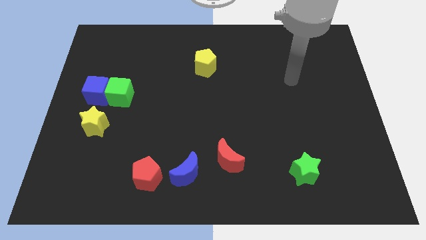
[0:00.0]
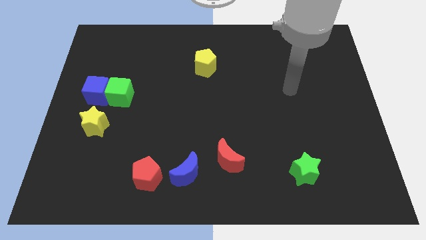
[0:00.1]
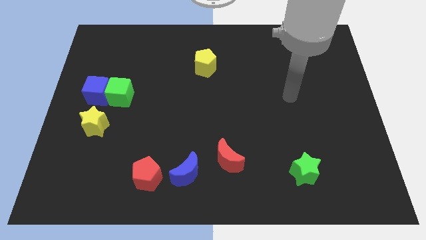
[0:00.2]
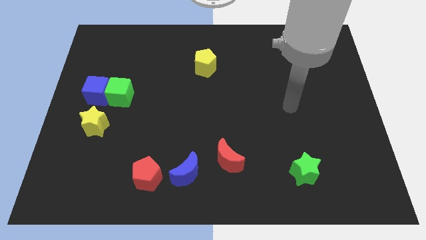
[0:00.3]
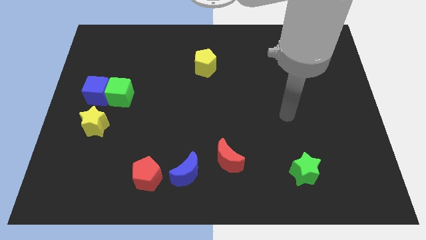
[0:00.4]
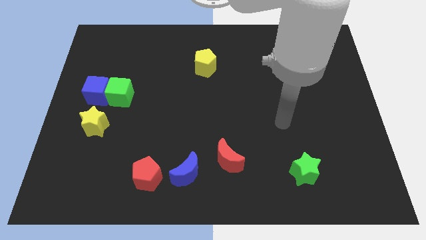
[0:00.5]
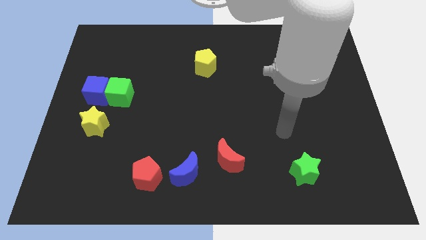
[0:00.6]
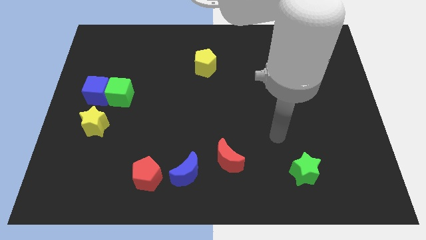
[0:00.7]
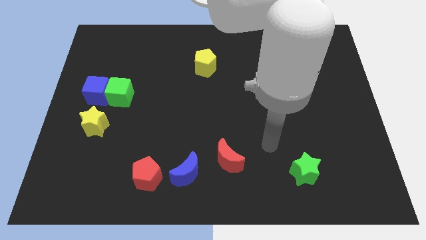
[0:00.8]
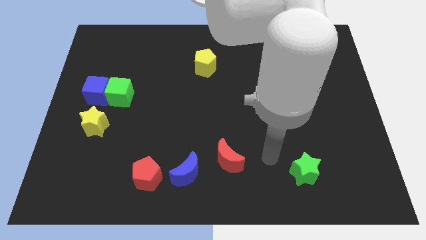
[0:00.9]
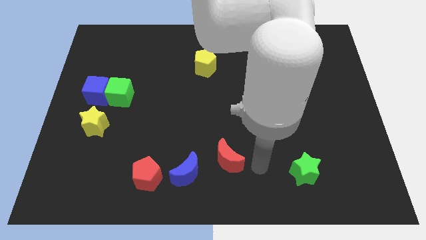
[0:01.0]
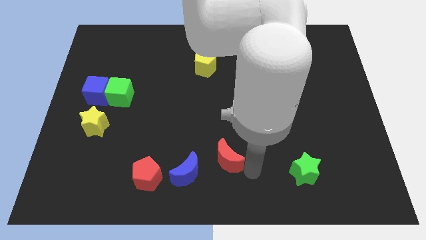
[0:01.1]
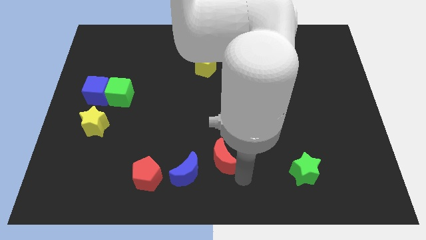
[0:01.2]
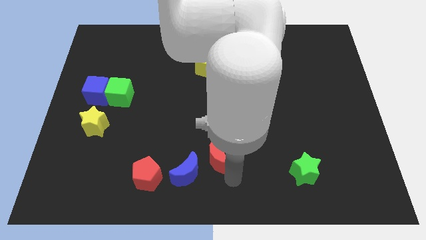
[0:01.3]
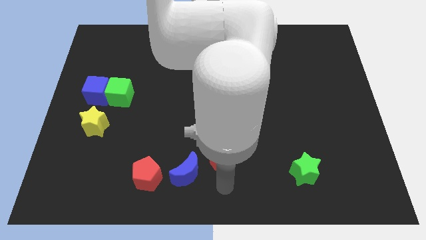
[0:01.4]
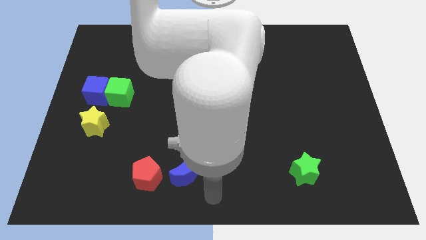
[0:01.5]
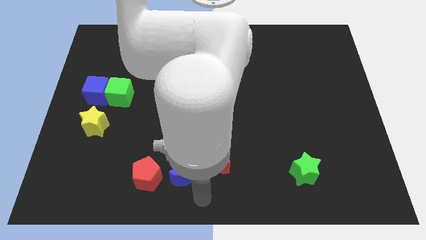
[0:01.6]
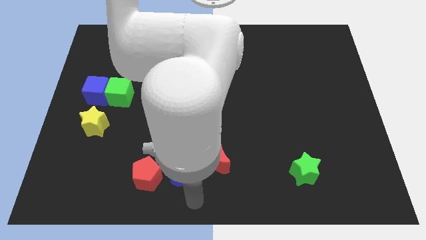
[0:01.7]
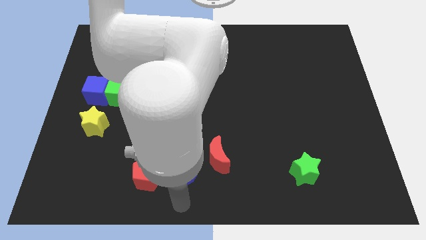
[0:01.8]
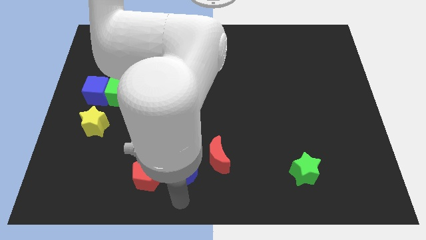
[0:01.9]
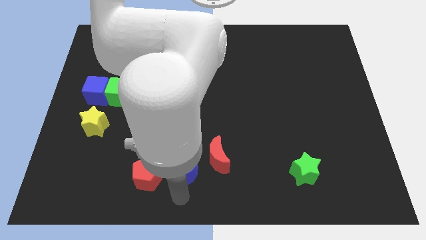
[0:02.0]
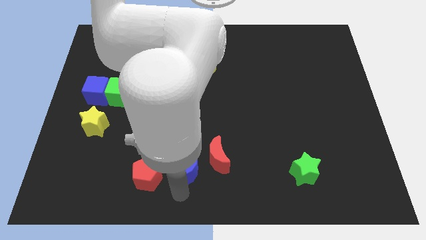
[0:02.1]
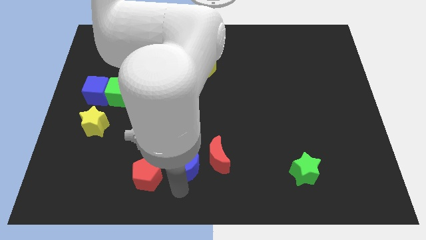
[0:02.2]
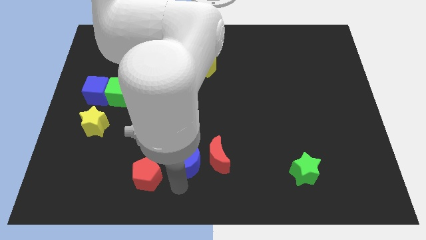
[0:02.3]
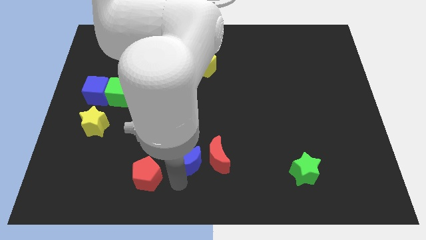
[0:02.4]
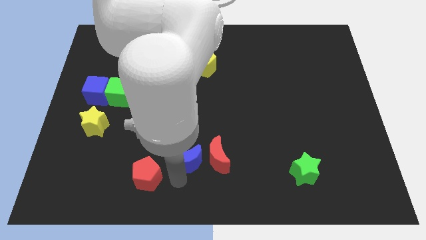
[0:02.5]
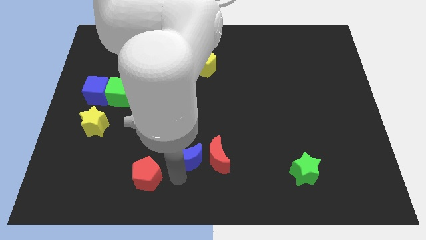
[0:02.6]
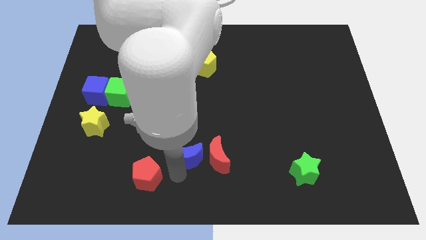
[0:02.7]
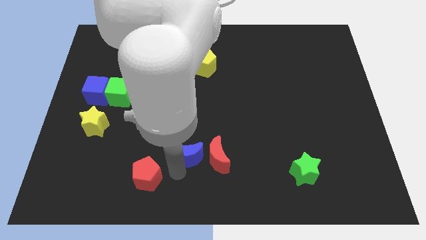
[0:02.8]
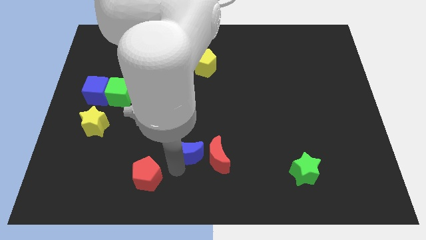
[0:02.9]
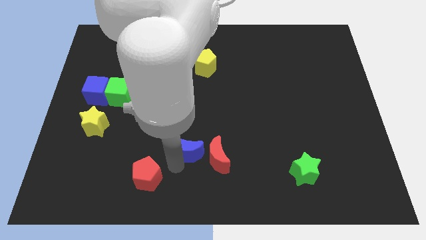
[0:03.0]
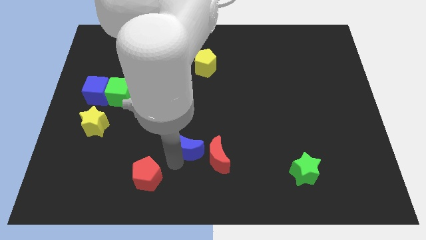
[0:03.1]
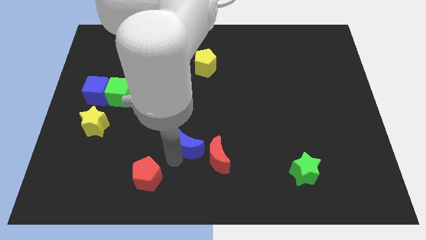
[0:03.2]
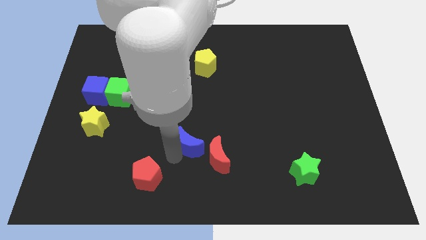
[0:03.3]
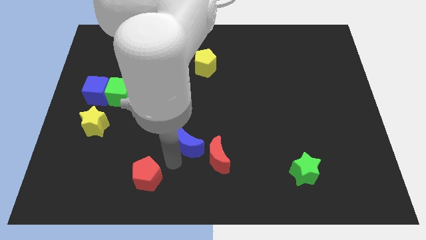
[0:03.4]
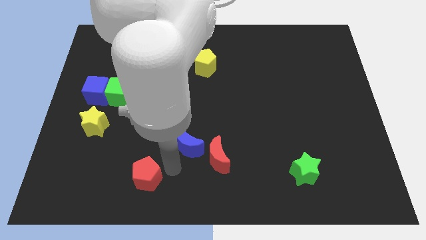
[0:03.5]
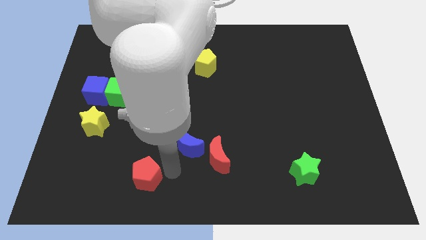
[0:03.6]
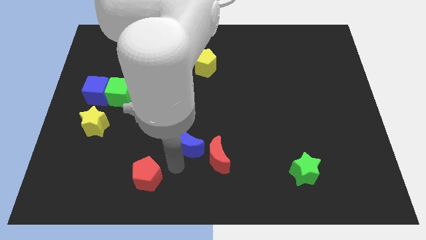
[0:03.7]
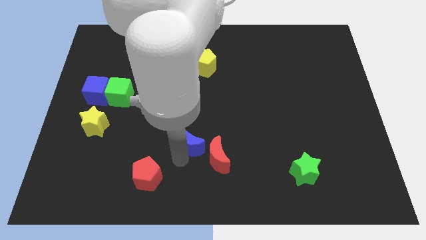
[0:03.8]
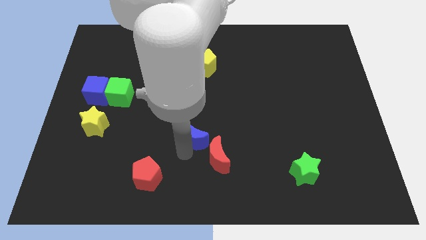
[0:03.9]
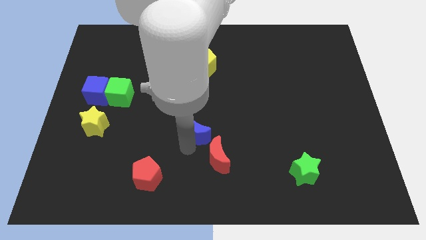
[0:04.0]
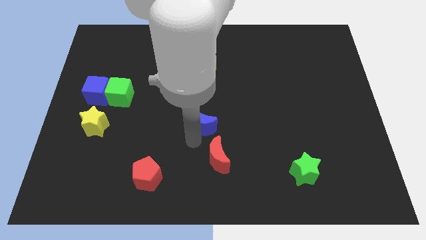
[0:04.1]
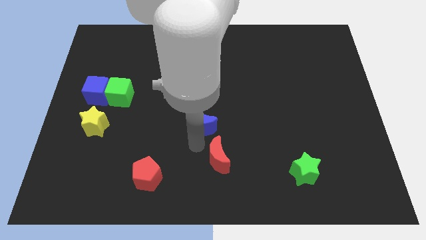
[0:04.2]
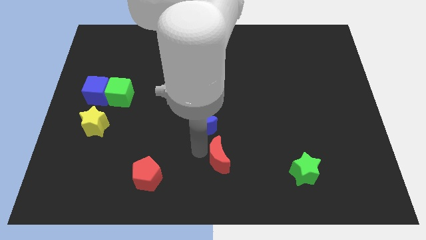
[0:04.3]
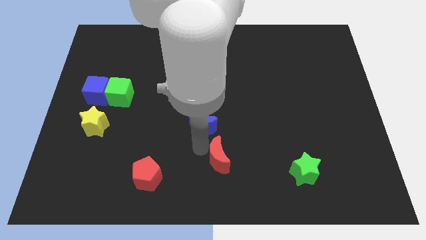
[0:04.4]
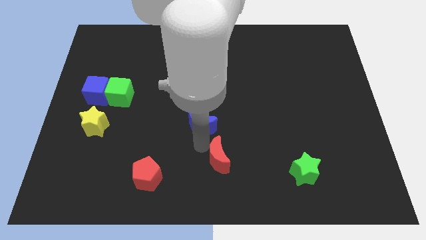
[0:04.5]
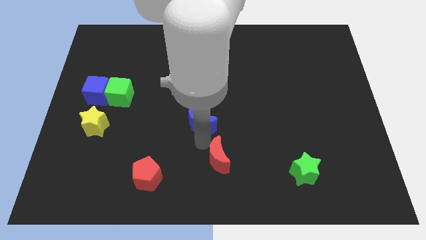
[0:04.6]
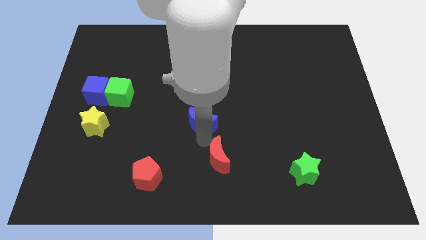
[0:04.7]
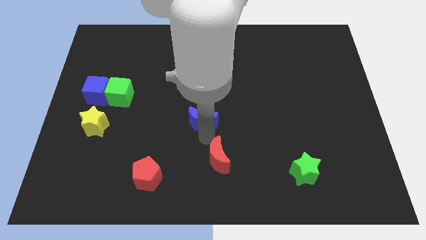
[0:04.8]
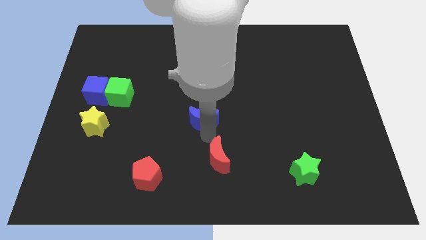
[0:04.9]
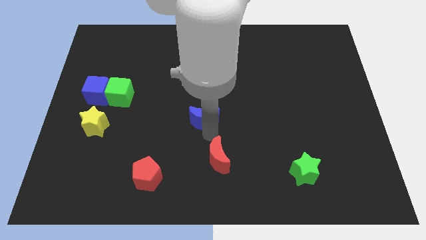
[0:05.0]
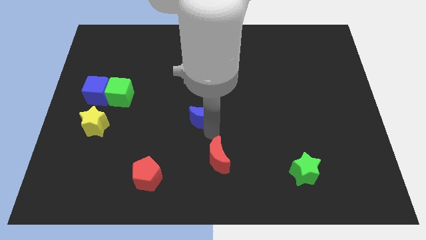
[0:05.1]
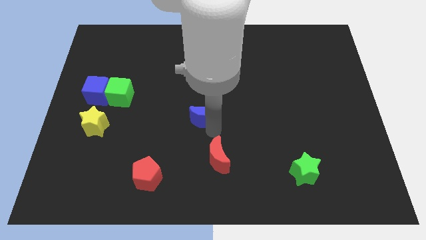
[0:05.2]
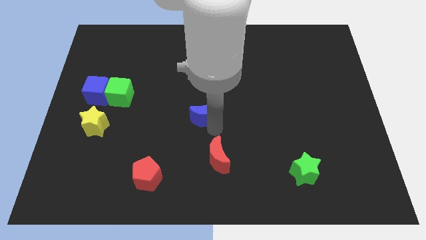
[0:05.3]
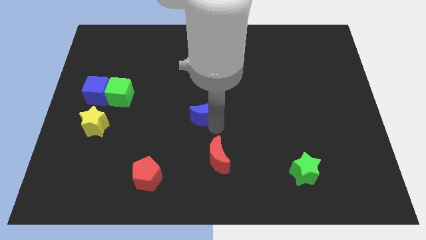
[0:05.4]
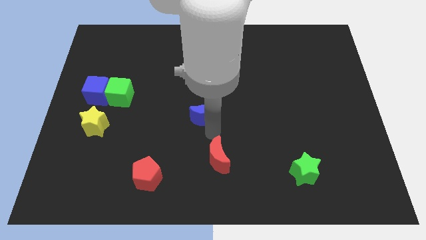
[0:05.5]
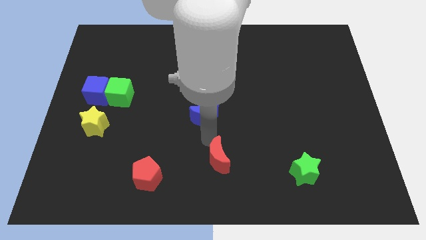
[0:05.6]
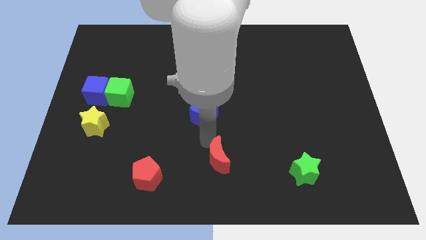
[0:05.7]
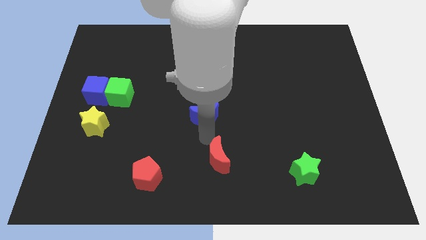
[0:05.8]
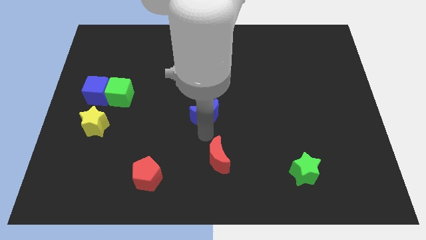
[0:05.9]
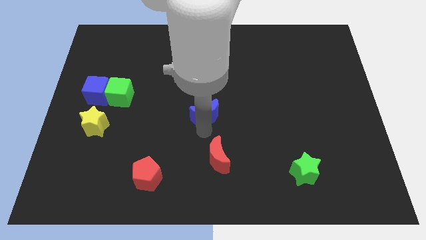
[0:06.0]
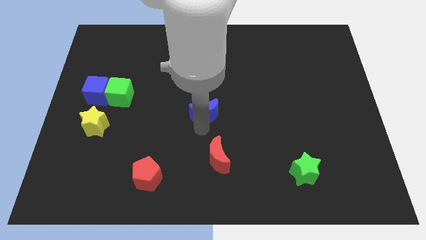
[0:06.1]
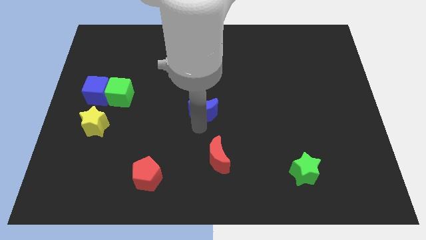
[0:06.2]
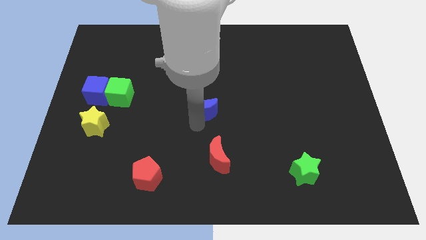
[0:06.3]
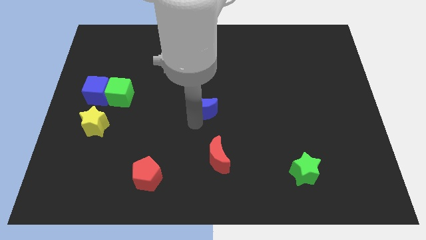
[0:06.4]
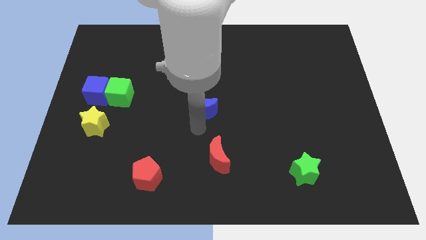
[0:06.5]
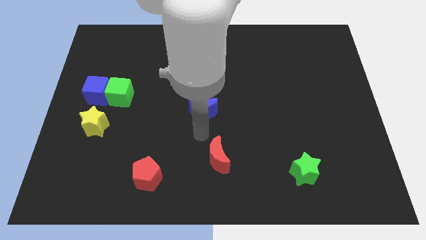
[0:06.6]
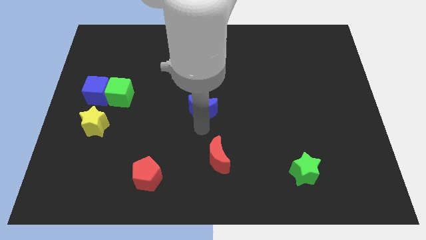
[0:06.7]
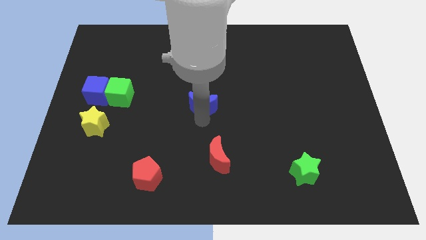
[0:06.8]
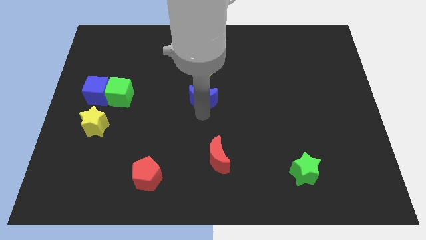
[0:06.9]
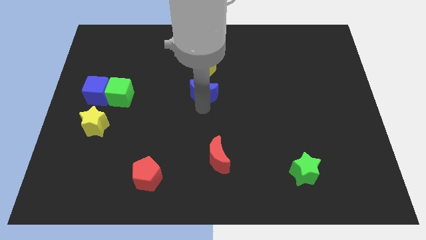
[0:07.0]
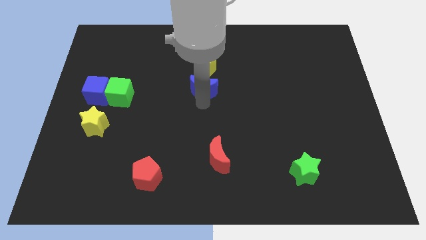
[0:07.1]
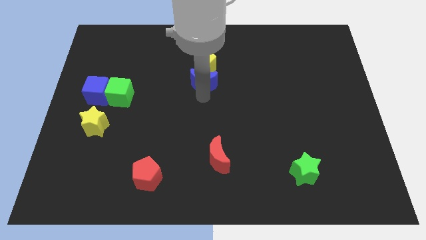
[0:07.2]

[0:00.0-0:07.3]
slide the blue moon towards the yellow pentagon
